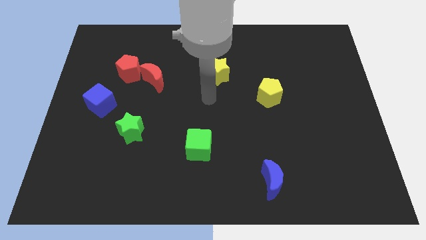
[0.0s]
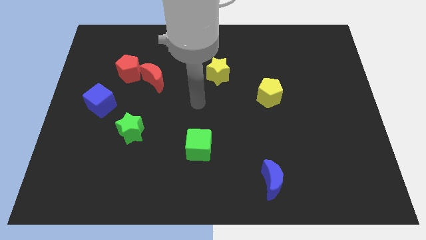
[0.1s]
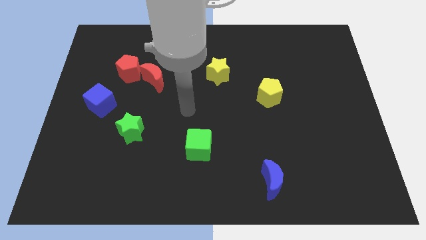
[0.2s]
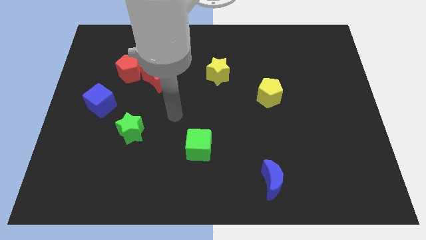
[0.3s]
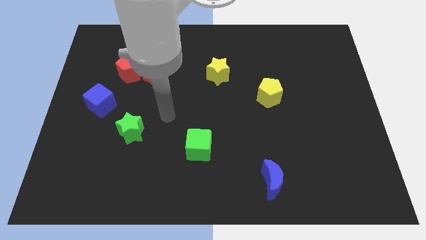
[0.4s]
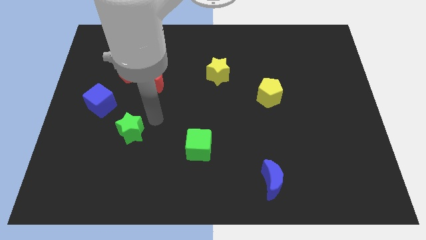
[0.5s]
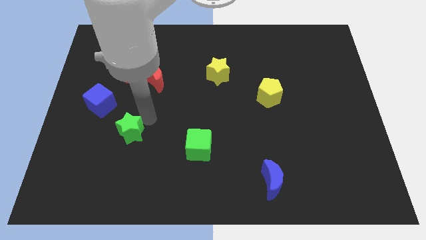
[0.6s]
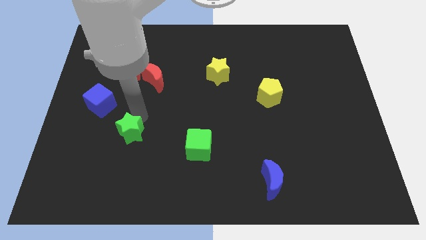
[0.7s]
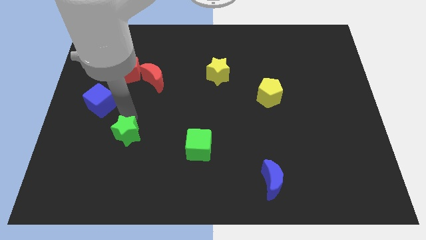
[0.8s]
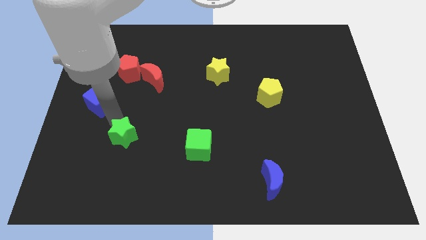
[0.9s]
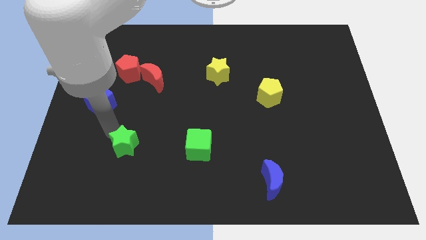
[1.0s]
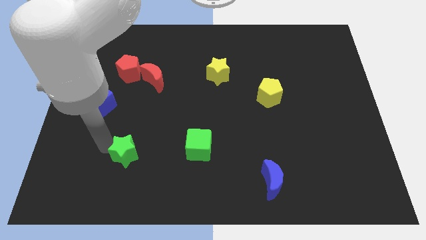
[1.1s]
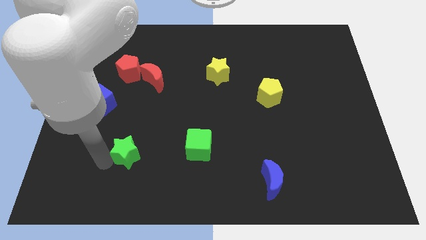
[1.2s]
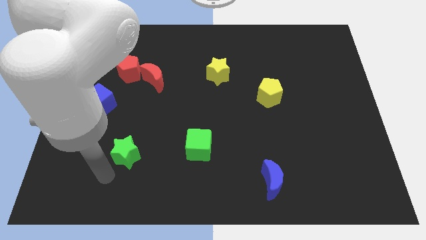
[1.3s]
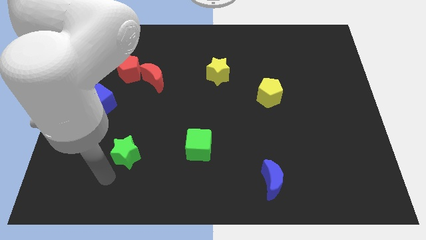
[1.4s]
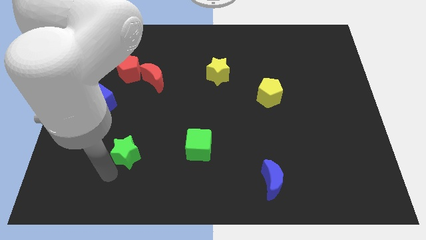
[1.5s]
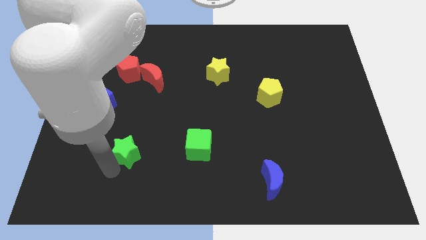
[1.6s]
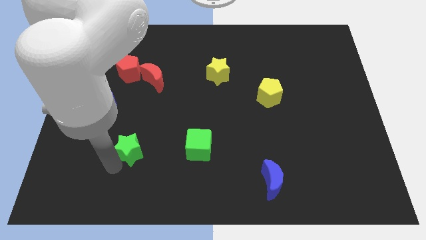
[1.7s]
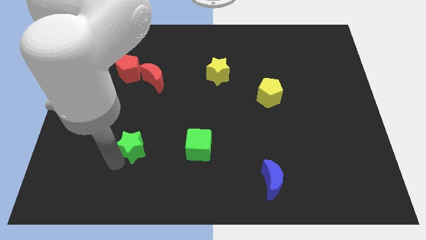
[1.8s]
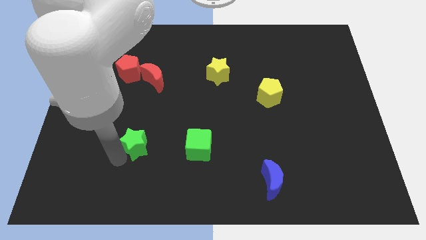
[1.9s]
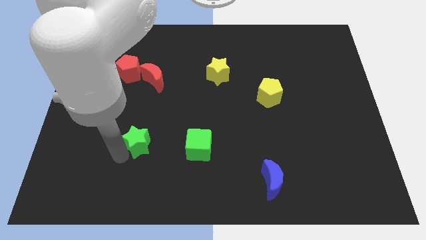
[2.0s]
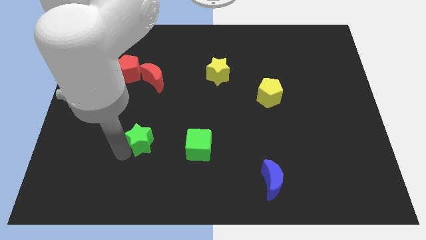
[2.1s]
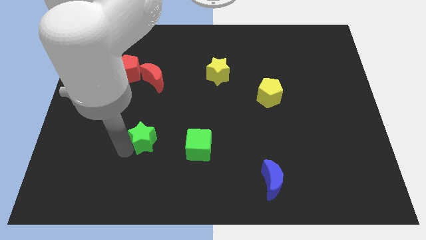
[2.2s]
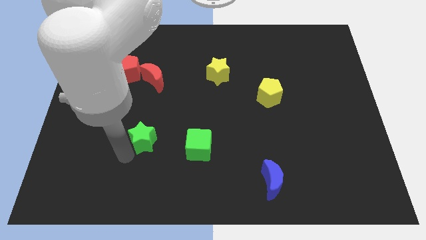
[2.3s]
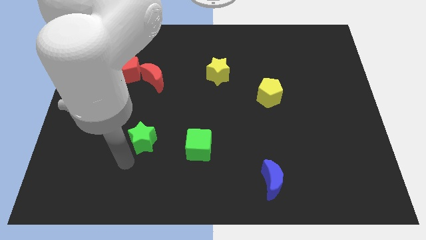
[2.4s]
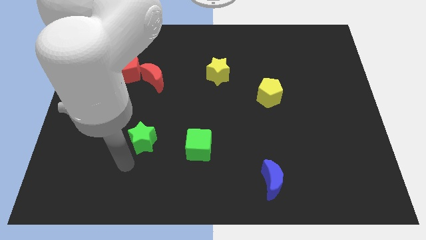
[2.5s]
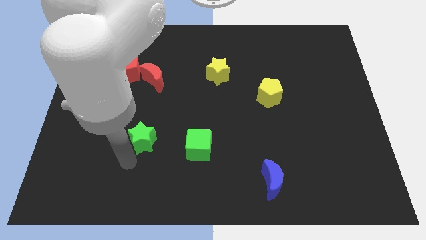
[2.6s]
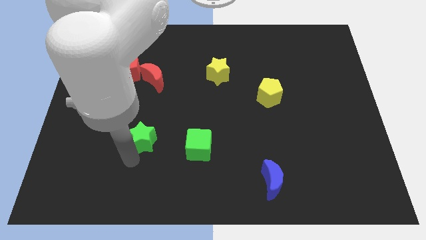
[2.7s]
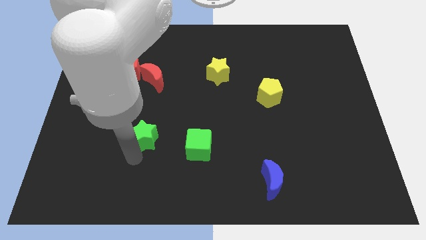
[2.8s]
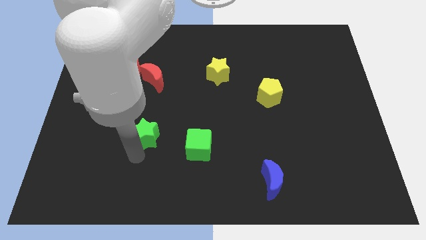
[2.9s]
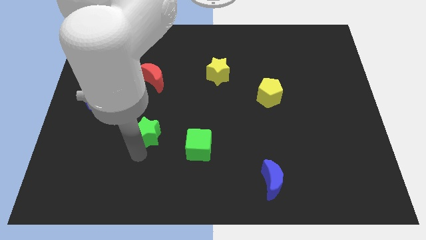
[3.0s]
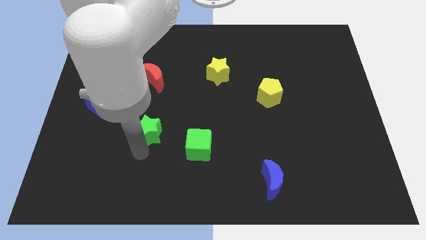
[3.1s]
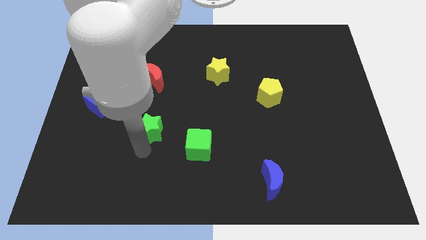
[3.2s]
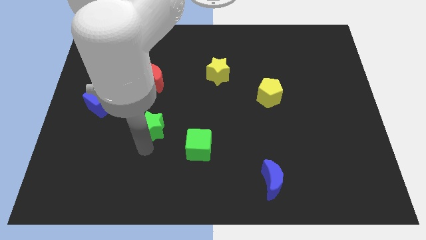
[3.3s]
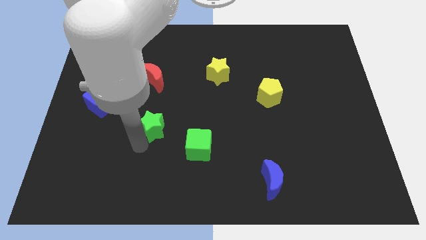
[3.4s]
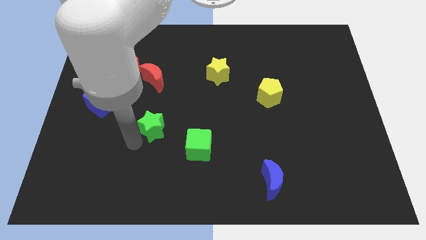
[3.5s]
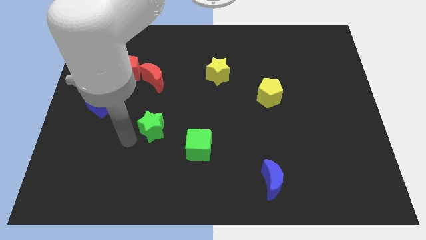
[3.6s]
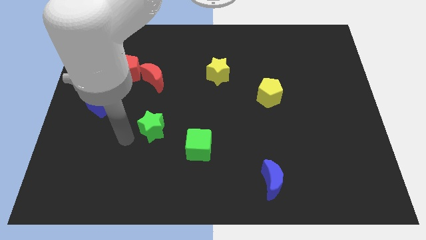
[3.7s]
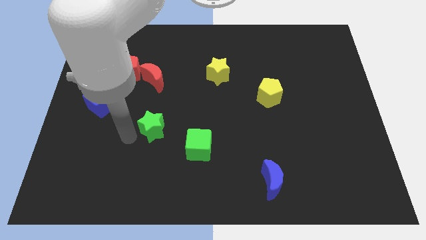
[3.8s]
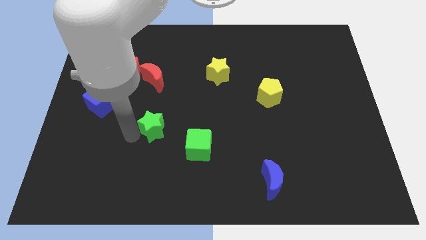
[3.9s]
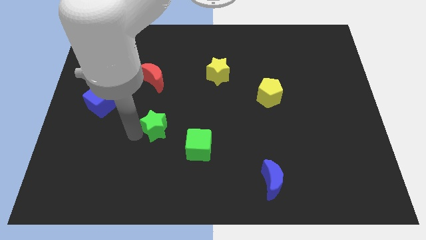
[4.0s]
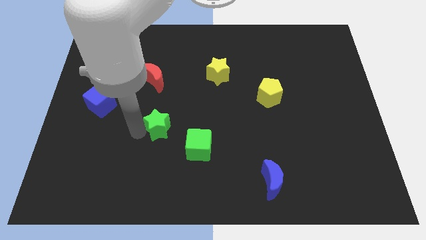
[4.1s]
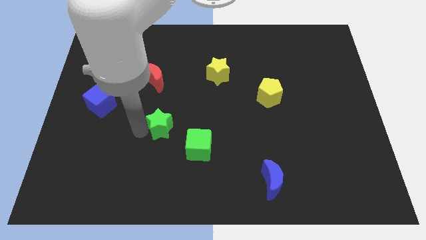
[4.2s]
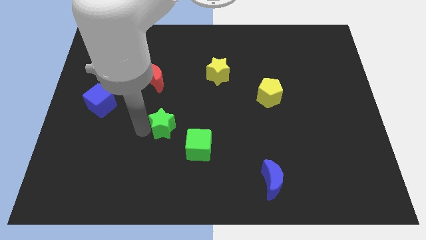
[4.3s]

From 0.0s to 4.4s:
slightly push the green star right

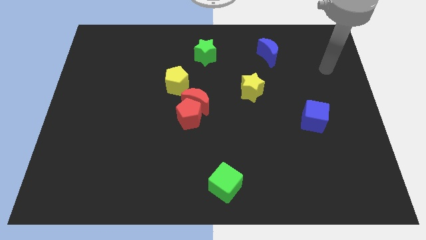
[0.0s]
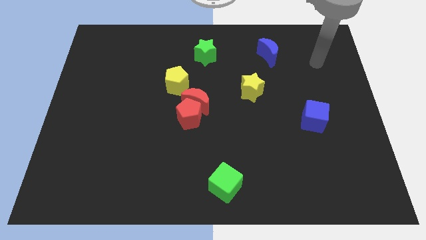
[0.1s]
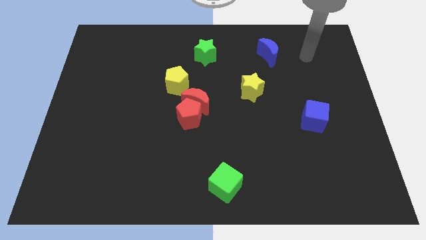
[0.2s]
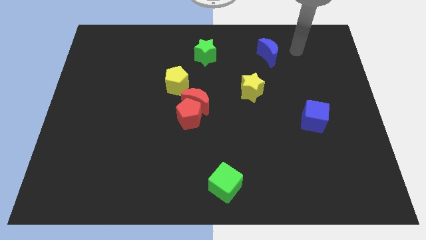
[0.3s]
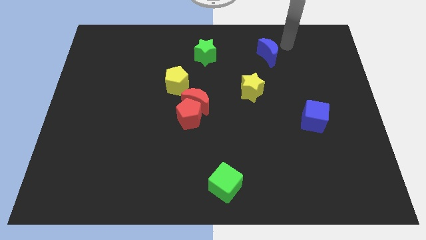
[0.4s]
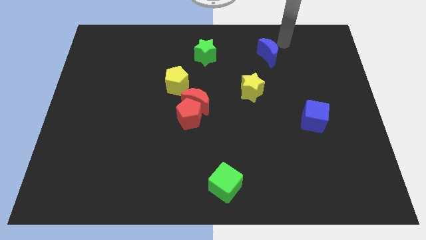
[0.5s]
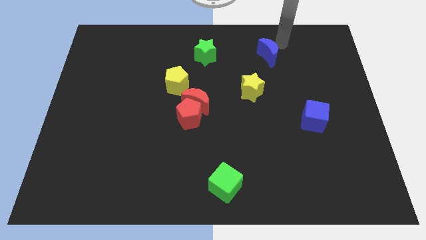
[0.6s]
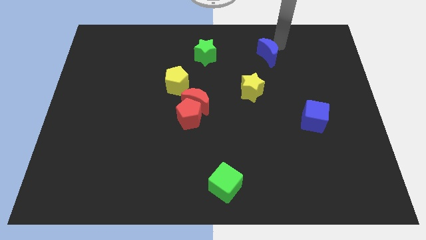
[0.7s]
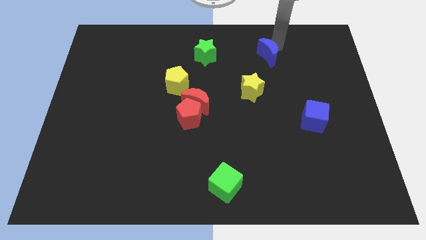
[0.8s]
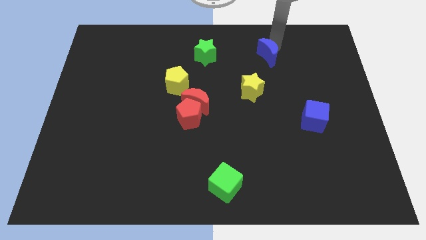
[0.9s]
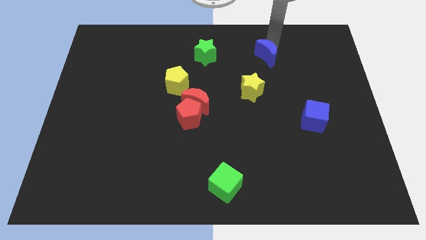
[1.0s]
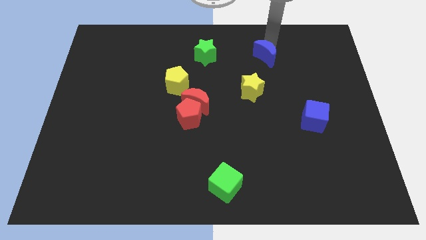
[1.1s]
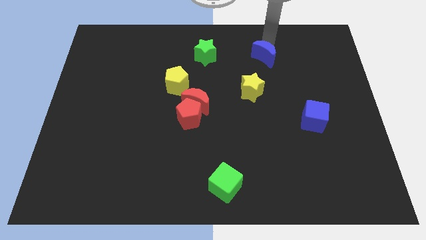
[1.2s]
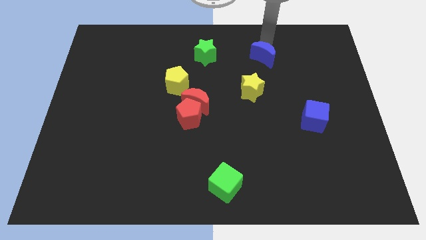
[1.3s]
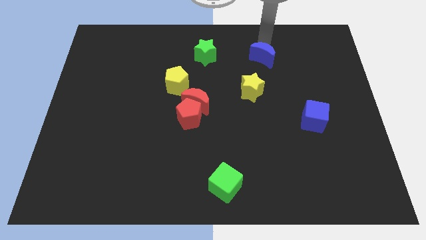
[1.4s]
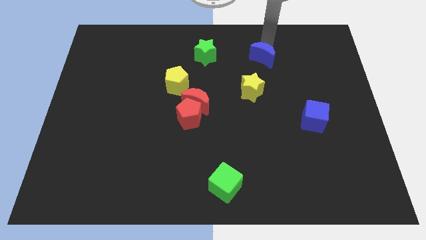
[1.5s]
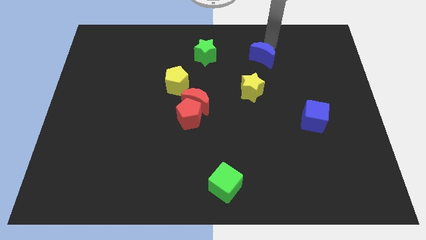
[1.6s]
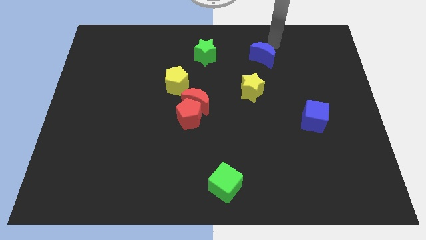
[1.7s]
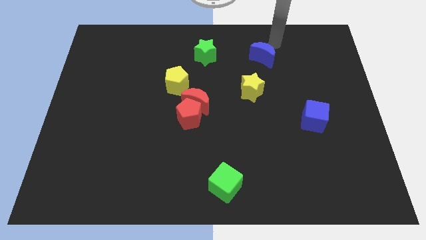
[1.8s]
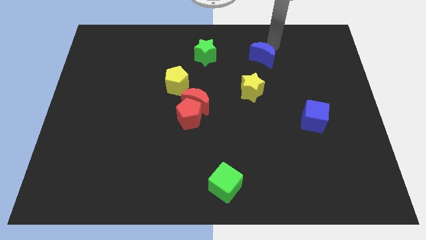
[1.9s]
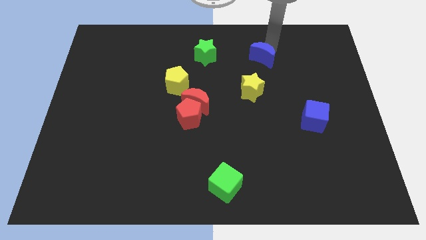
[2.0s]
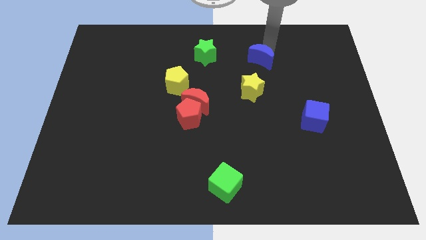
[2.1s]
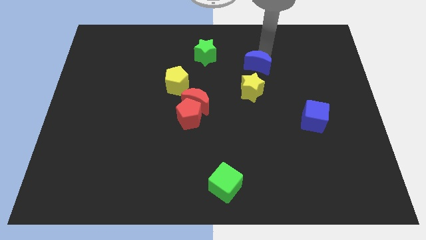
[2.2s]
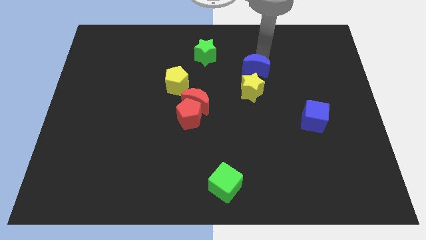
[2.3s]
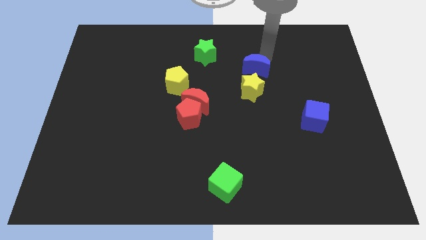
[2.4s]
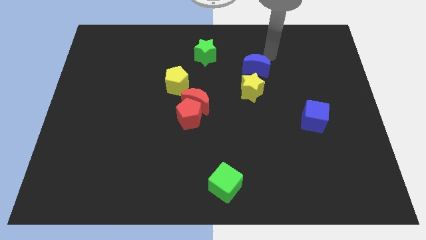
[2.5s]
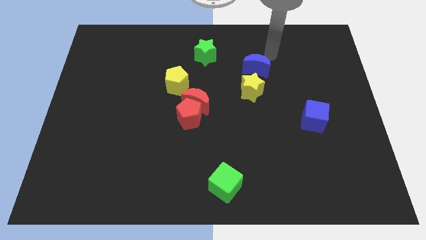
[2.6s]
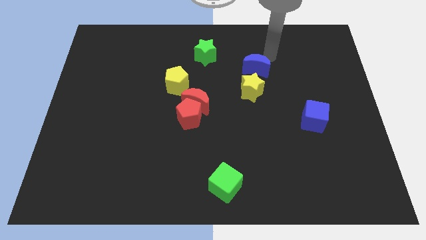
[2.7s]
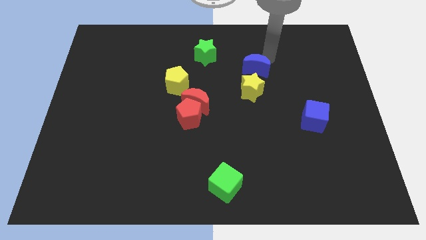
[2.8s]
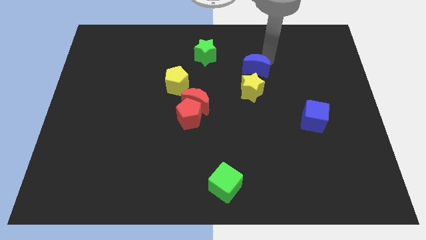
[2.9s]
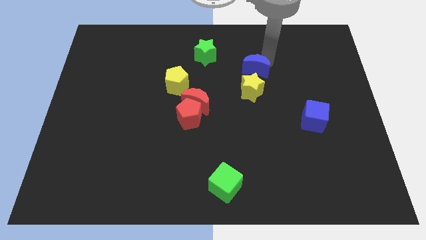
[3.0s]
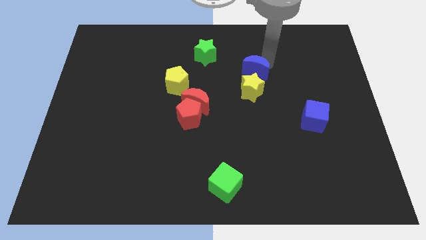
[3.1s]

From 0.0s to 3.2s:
move the blue moon a little downwards and to the left

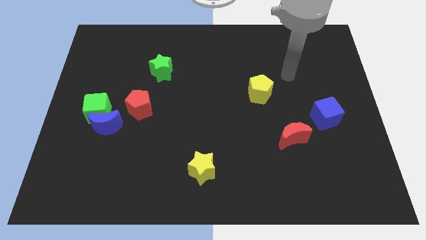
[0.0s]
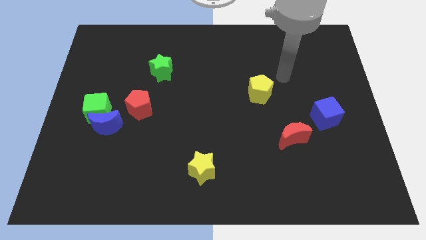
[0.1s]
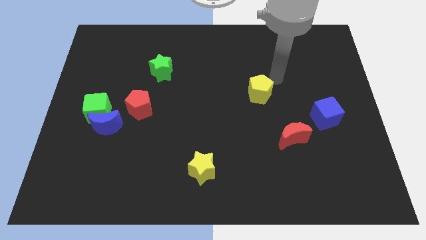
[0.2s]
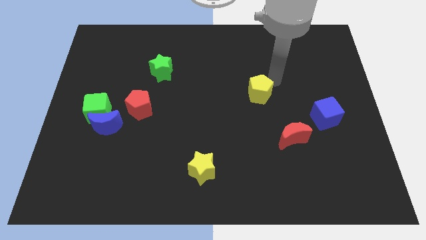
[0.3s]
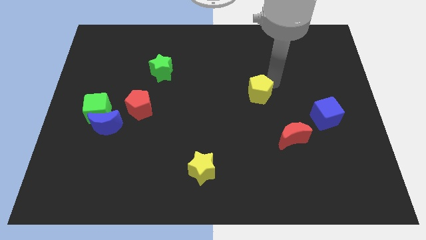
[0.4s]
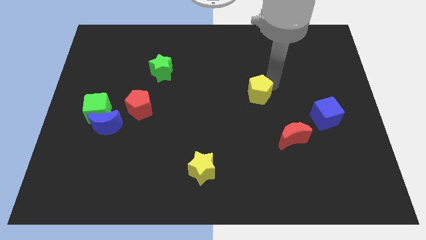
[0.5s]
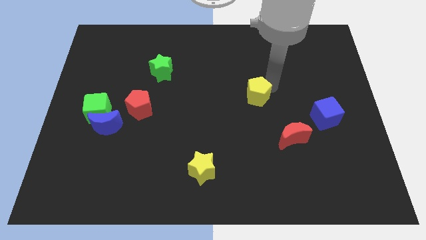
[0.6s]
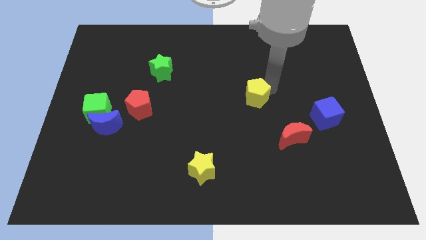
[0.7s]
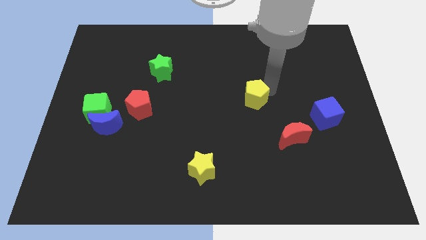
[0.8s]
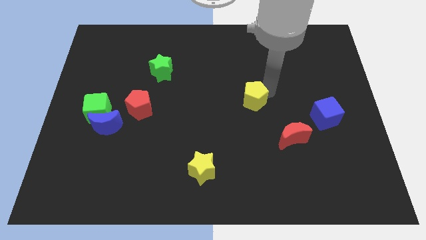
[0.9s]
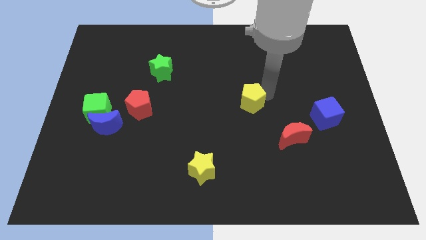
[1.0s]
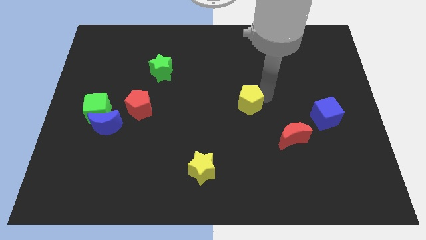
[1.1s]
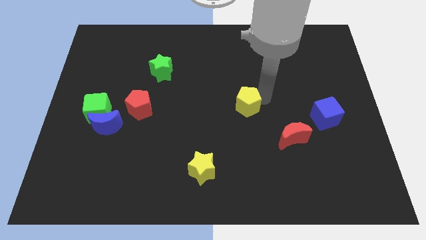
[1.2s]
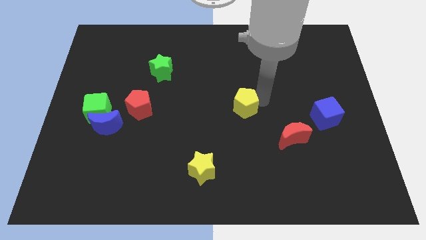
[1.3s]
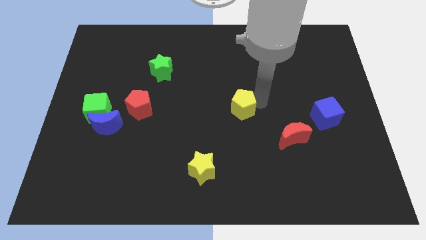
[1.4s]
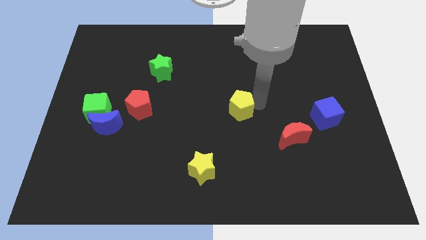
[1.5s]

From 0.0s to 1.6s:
slightly push the yellow pentagon downwards and to the left
